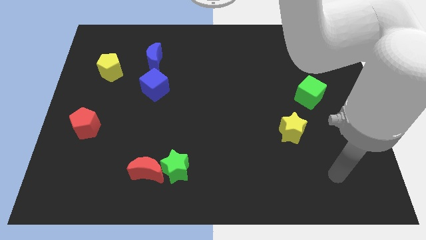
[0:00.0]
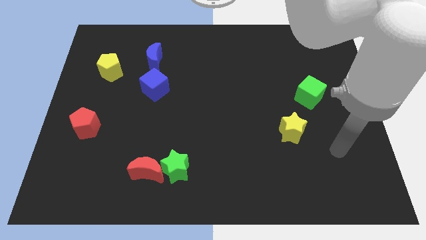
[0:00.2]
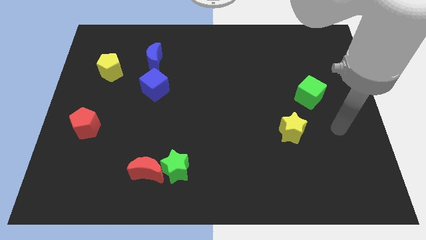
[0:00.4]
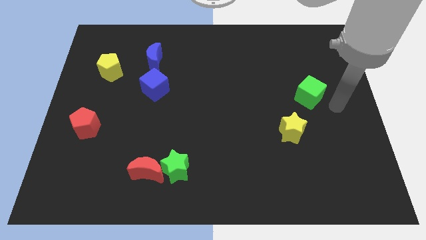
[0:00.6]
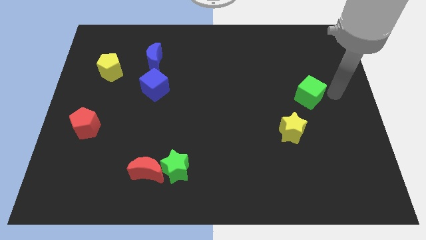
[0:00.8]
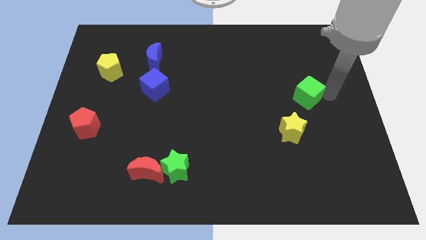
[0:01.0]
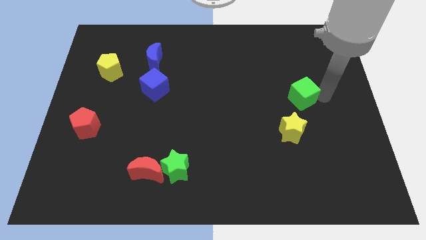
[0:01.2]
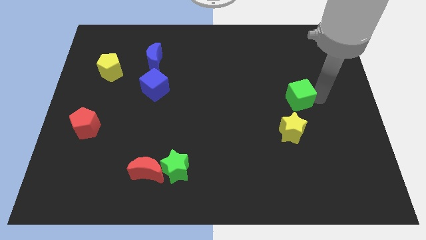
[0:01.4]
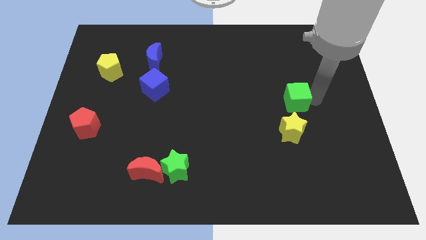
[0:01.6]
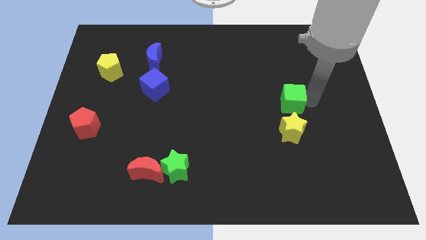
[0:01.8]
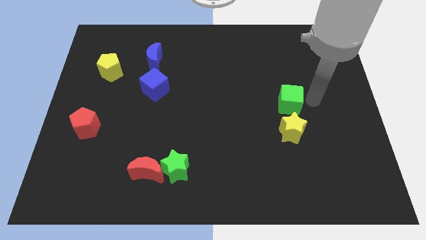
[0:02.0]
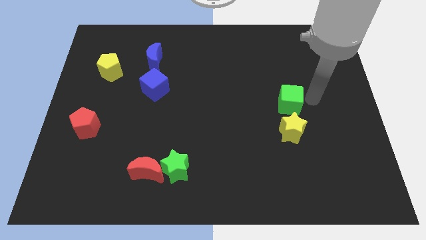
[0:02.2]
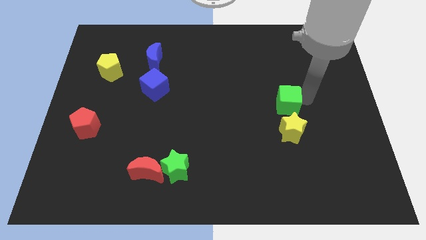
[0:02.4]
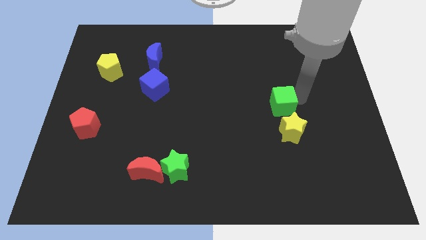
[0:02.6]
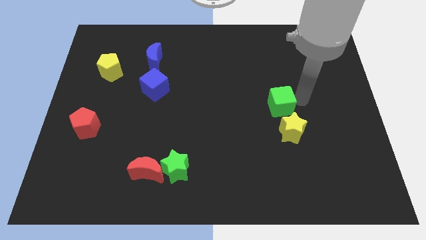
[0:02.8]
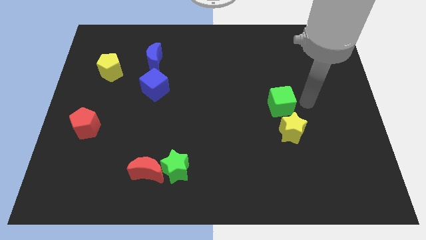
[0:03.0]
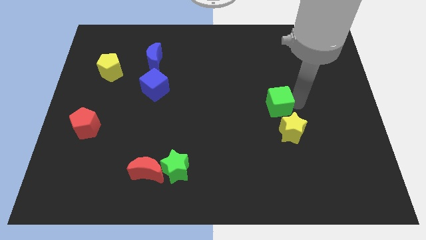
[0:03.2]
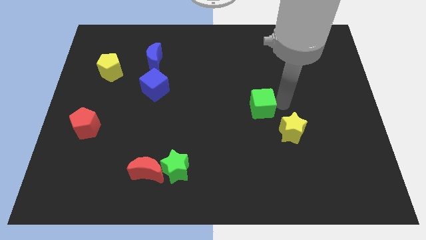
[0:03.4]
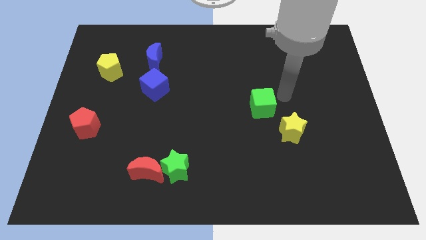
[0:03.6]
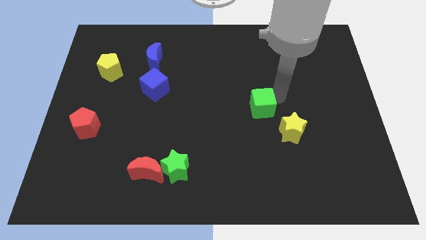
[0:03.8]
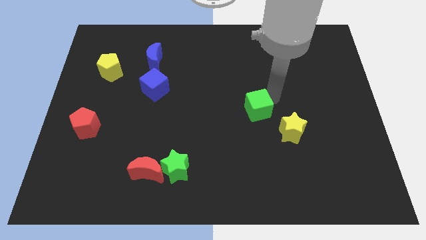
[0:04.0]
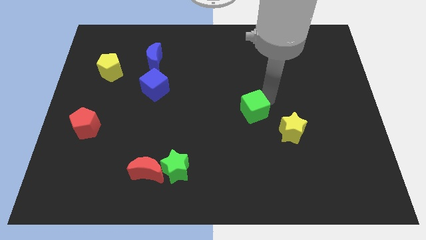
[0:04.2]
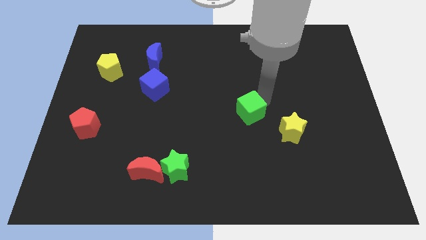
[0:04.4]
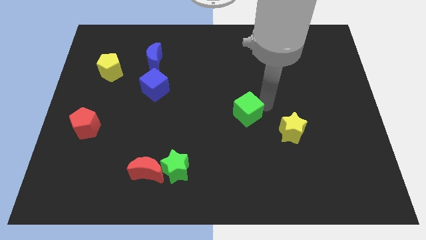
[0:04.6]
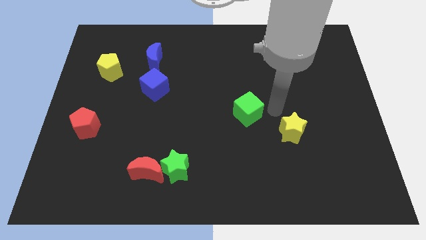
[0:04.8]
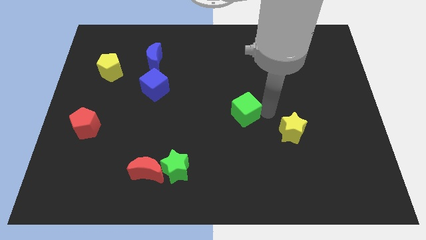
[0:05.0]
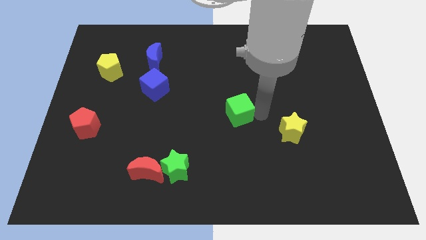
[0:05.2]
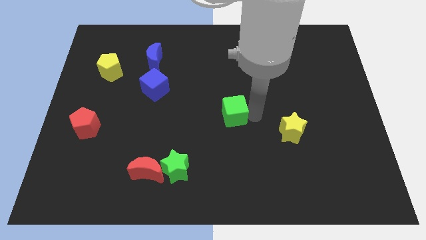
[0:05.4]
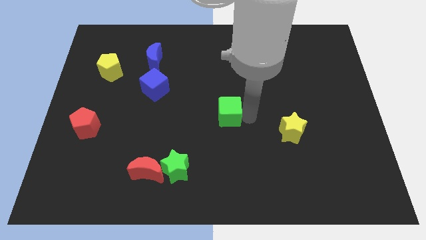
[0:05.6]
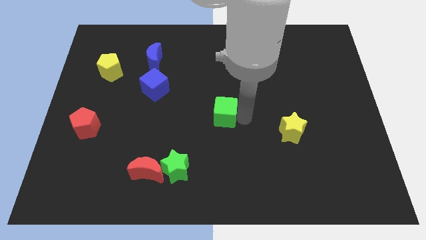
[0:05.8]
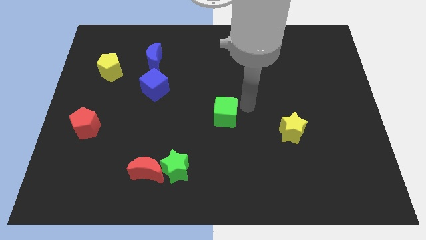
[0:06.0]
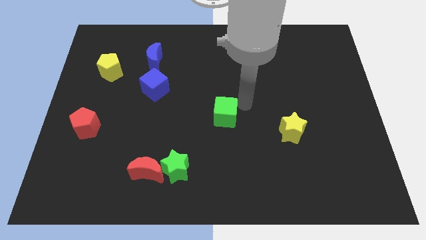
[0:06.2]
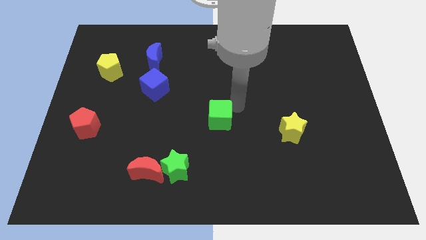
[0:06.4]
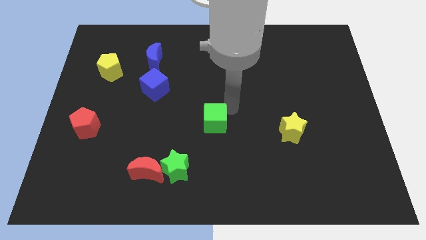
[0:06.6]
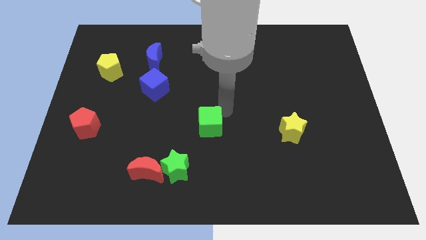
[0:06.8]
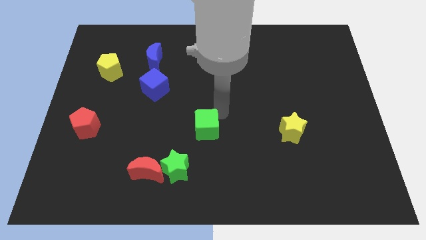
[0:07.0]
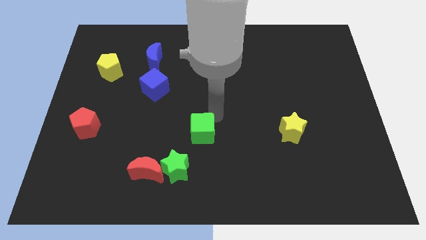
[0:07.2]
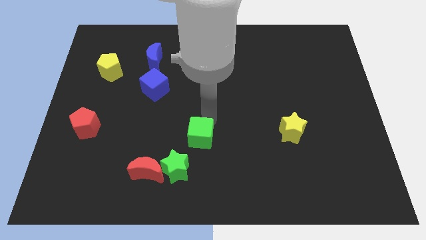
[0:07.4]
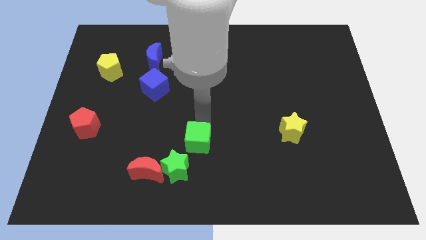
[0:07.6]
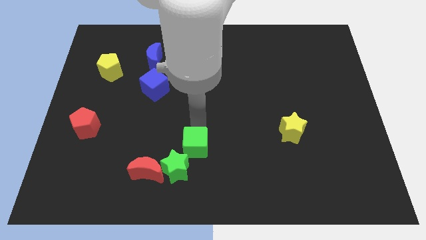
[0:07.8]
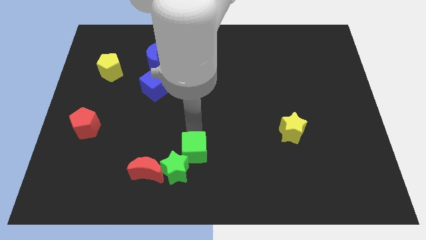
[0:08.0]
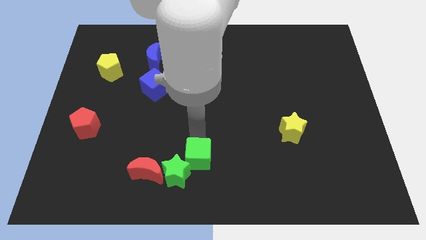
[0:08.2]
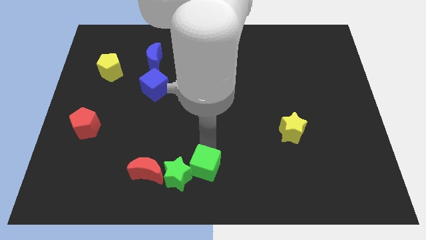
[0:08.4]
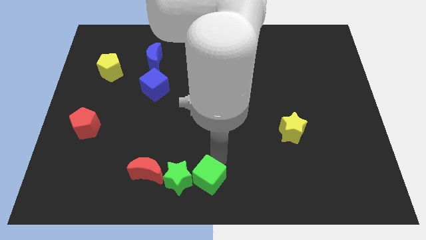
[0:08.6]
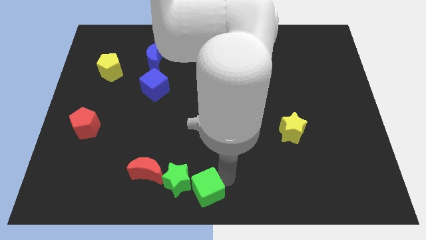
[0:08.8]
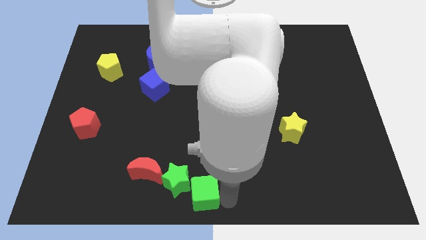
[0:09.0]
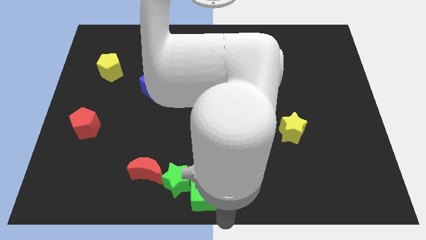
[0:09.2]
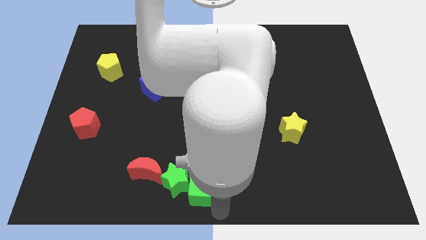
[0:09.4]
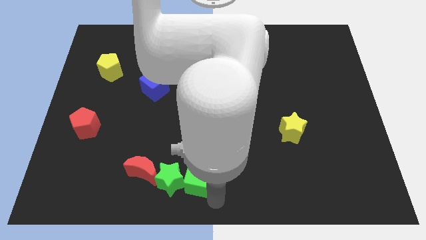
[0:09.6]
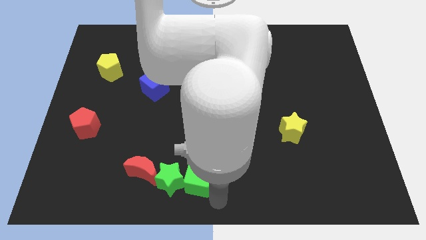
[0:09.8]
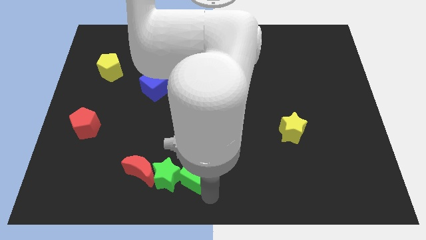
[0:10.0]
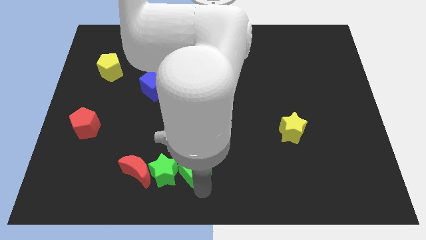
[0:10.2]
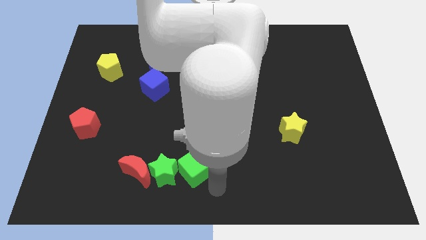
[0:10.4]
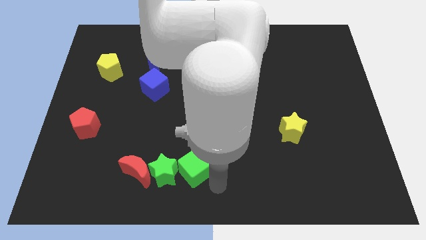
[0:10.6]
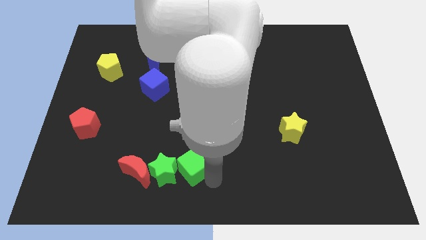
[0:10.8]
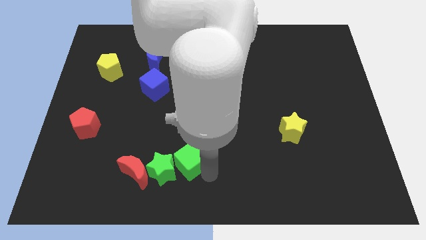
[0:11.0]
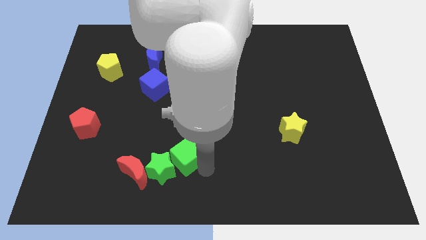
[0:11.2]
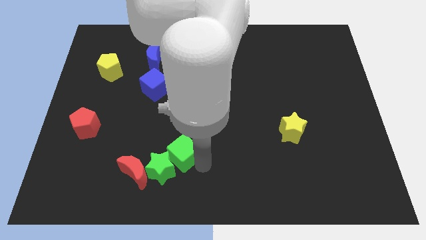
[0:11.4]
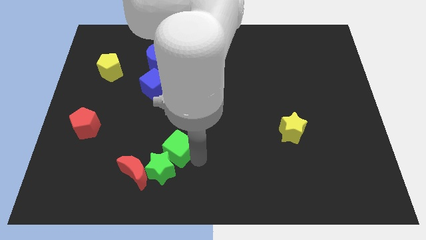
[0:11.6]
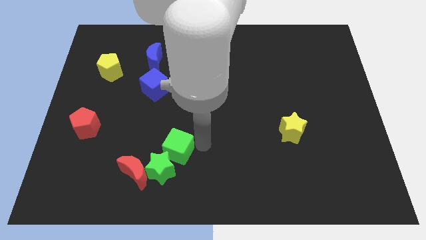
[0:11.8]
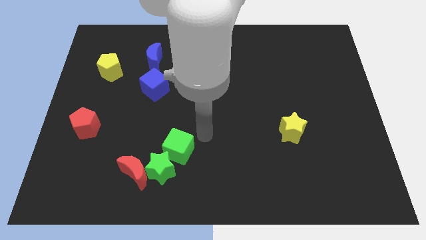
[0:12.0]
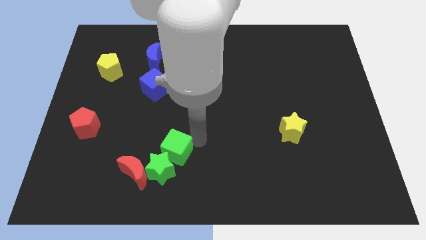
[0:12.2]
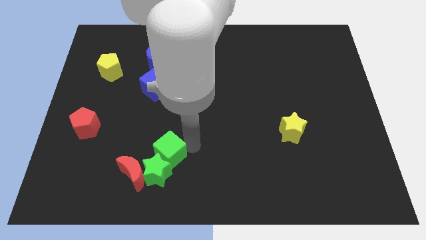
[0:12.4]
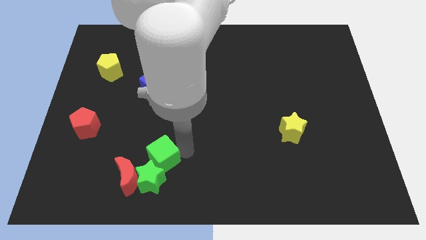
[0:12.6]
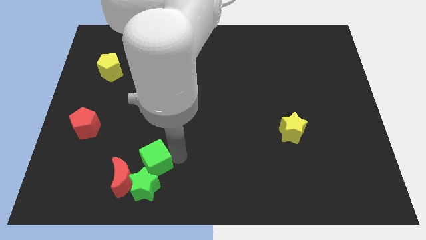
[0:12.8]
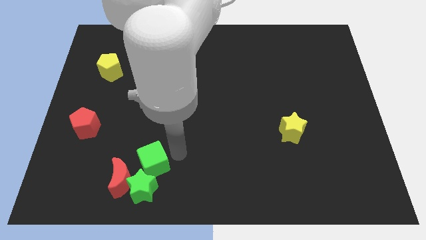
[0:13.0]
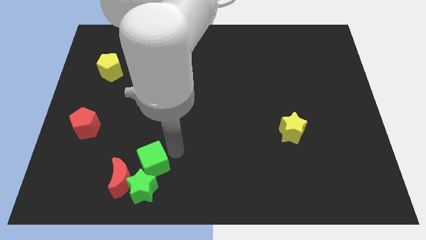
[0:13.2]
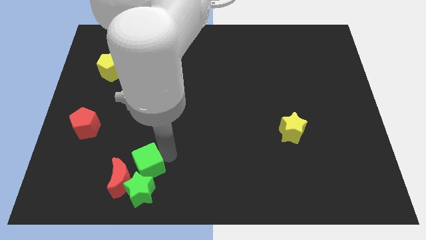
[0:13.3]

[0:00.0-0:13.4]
push the green cube next to the red moon

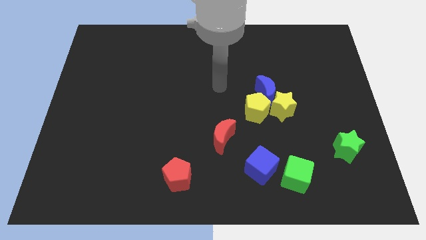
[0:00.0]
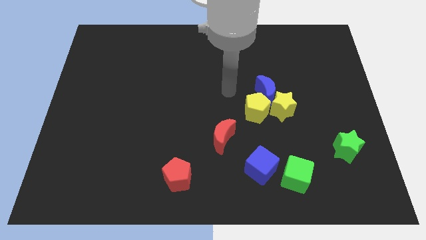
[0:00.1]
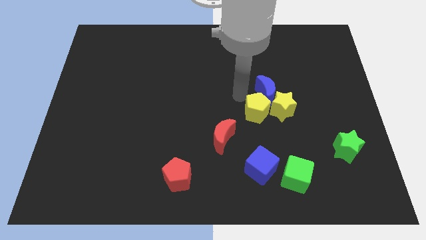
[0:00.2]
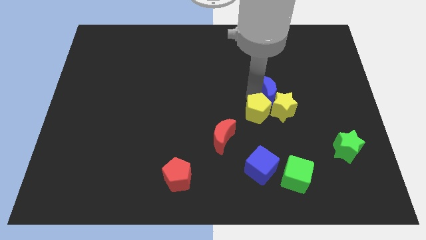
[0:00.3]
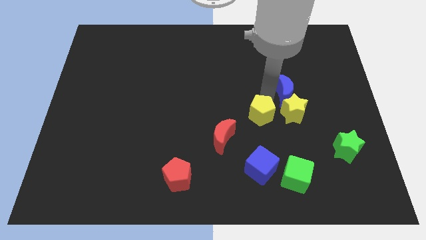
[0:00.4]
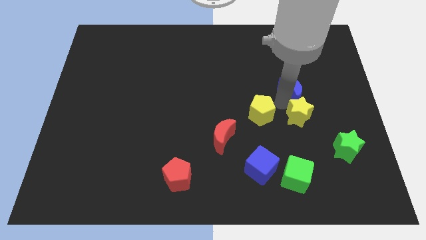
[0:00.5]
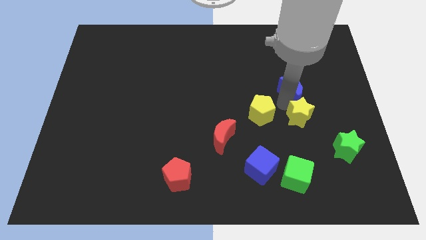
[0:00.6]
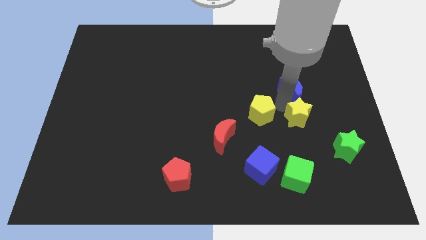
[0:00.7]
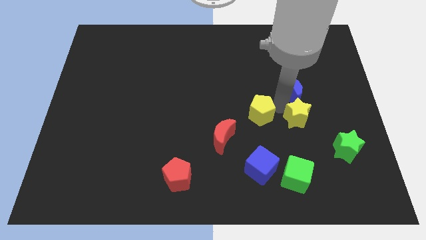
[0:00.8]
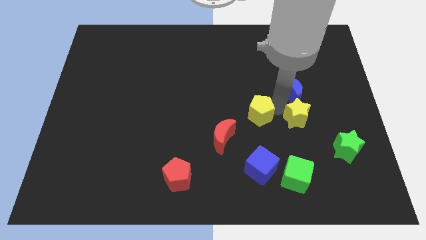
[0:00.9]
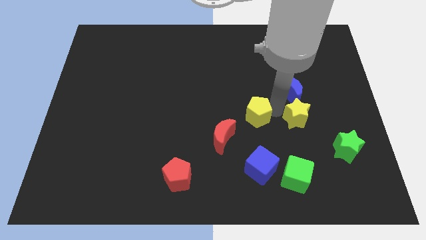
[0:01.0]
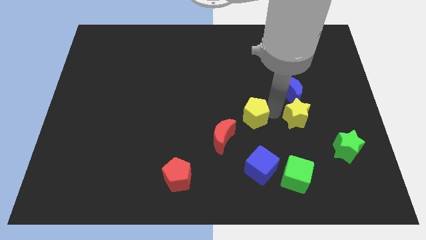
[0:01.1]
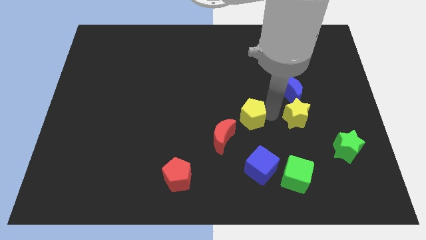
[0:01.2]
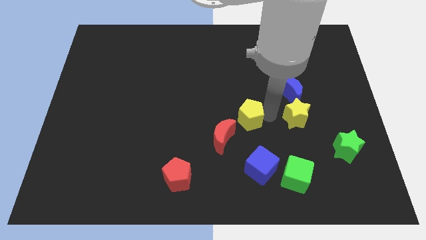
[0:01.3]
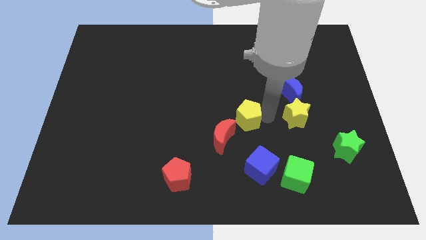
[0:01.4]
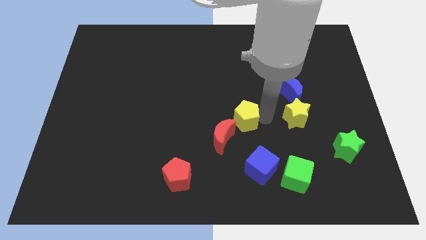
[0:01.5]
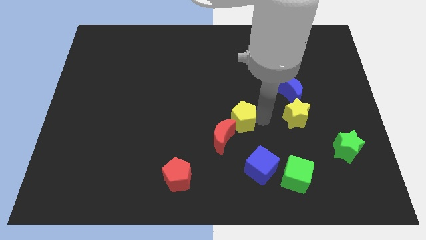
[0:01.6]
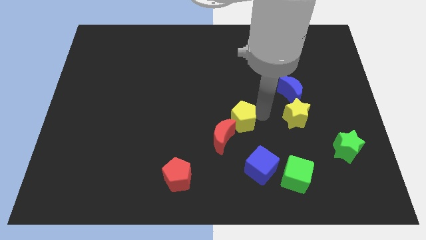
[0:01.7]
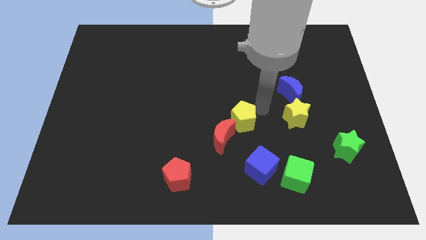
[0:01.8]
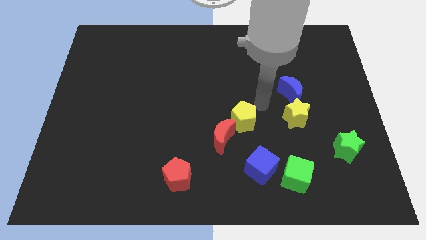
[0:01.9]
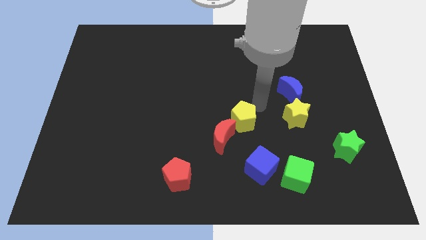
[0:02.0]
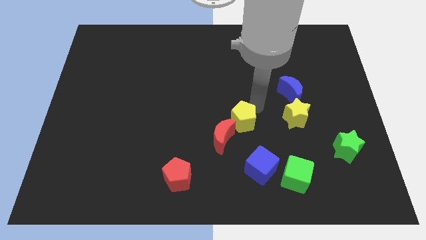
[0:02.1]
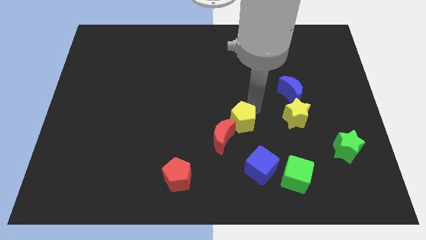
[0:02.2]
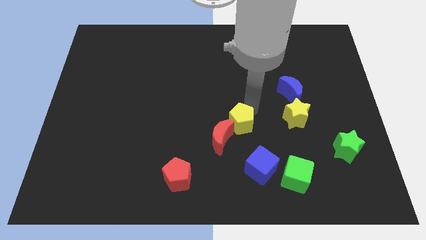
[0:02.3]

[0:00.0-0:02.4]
slide the yellow pentagon towards the red moon
